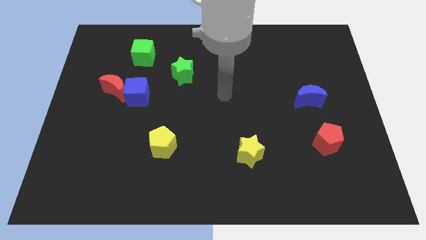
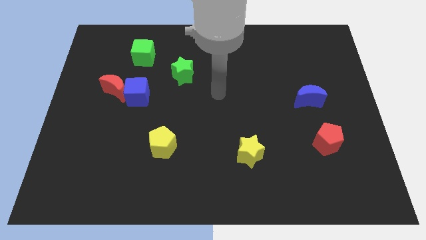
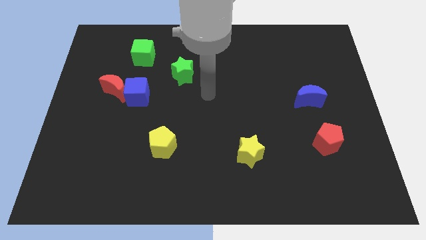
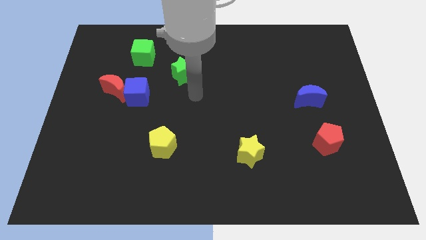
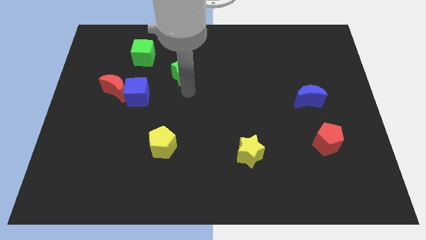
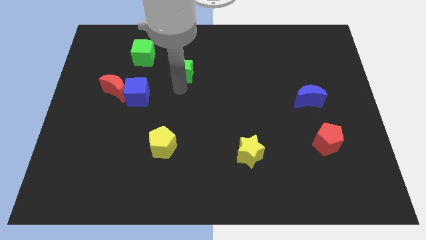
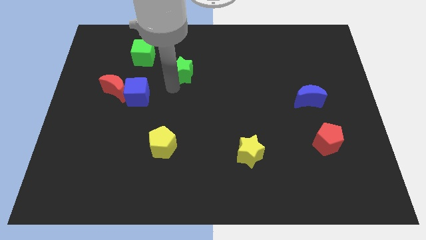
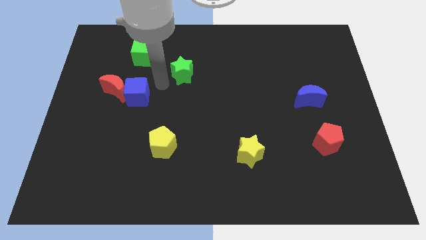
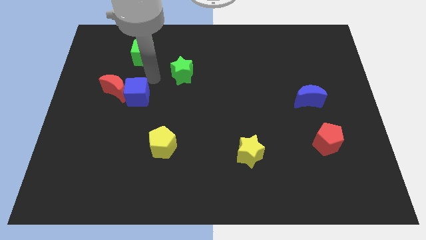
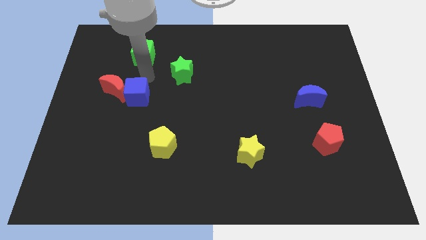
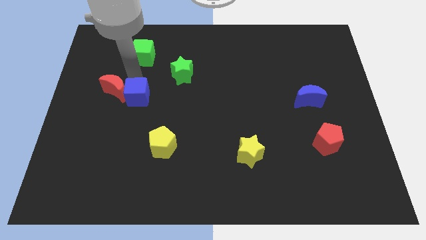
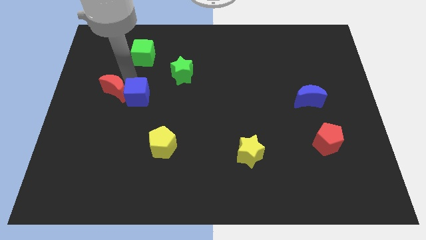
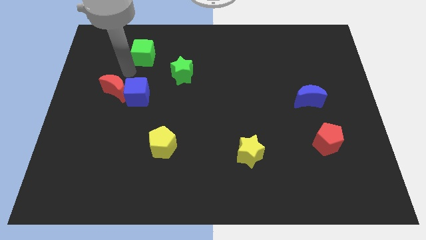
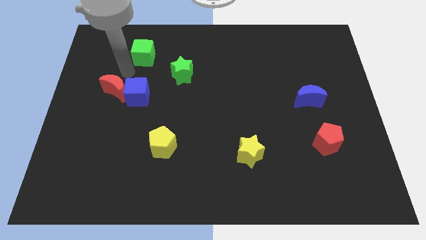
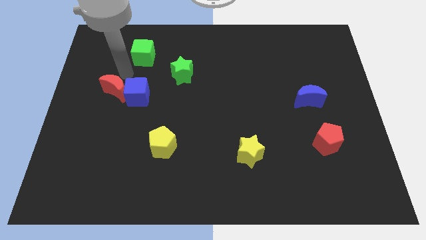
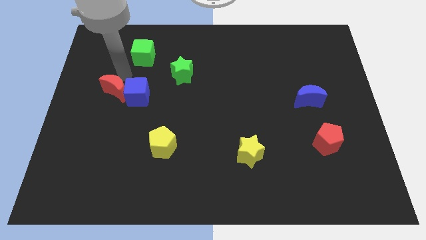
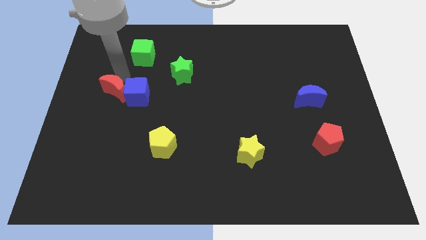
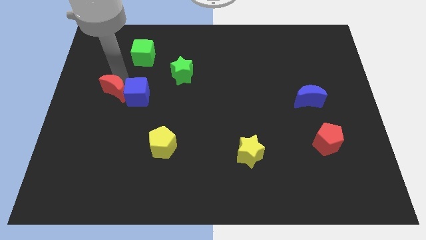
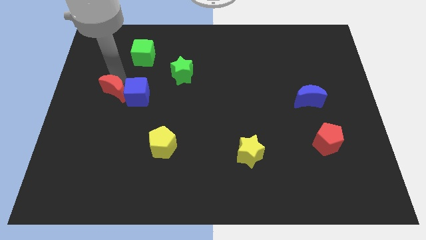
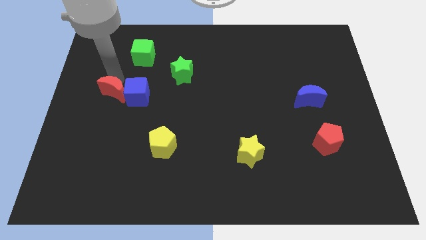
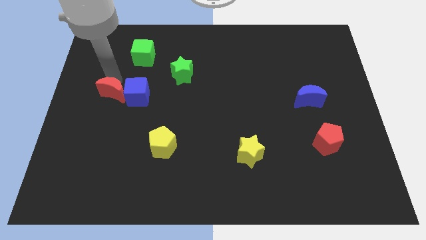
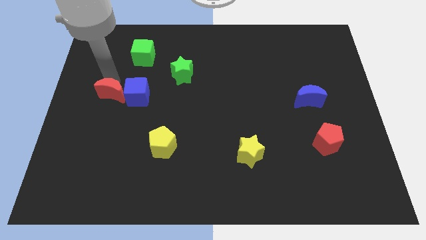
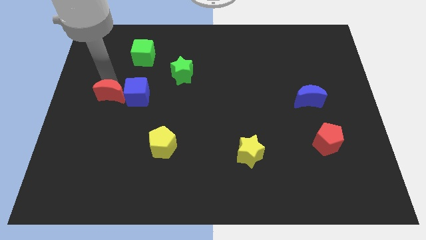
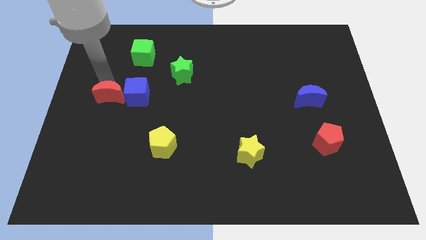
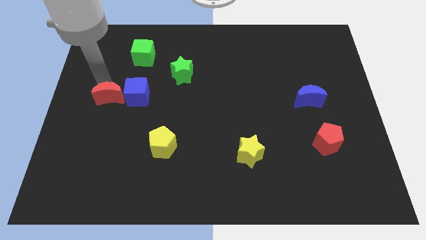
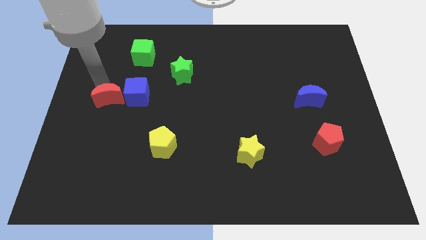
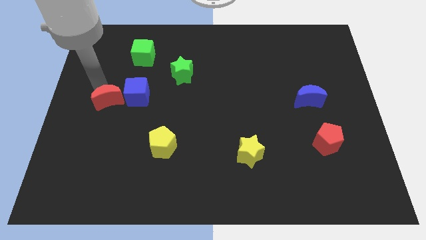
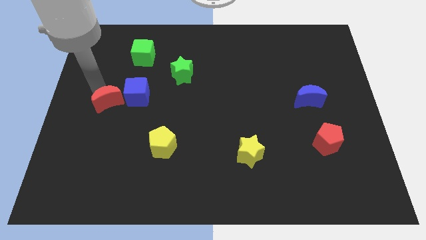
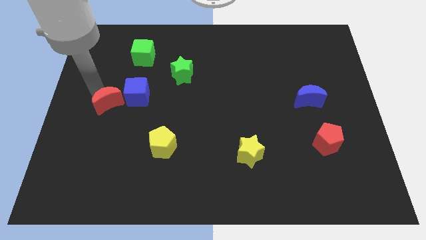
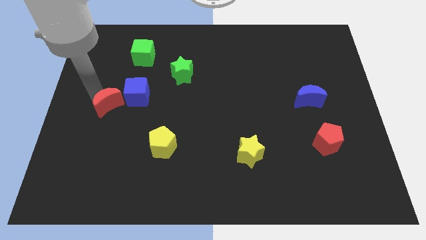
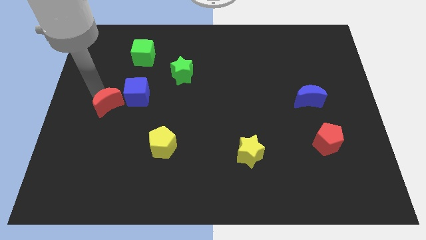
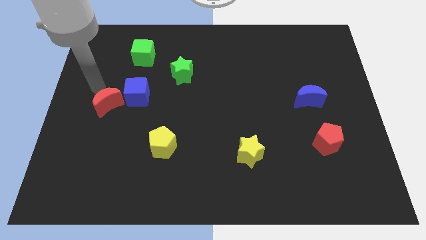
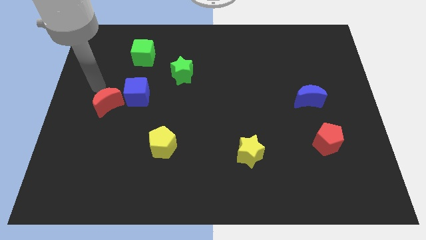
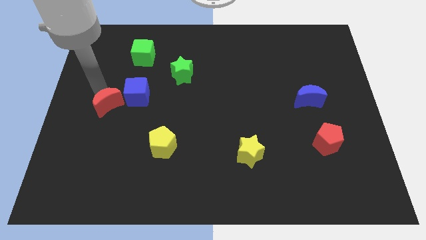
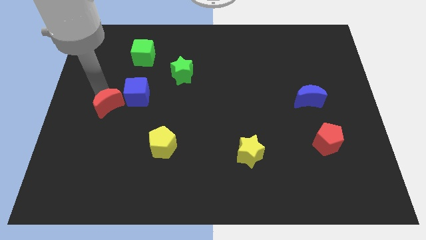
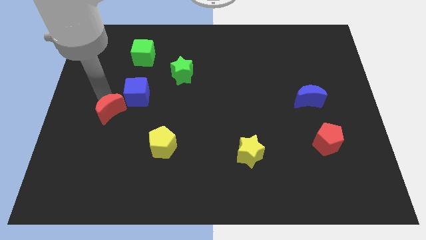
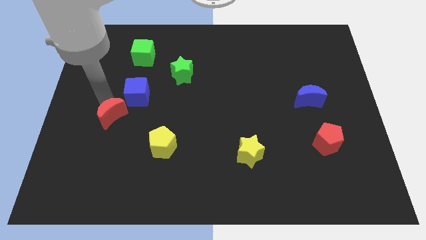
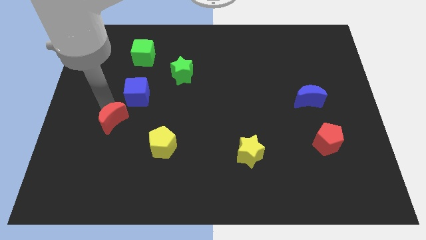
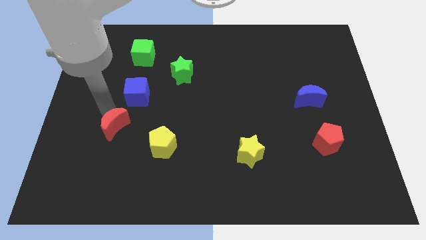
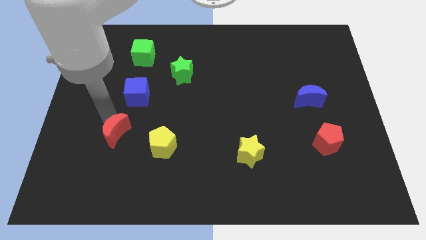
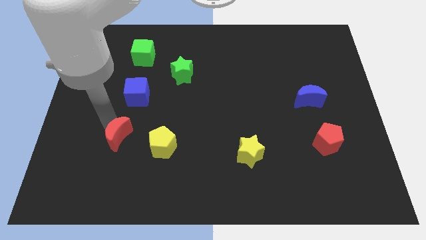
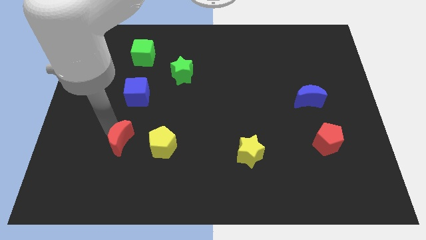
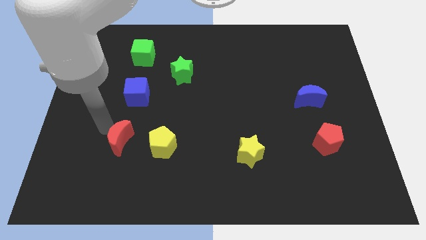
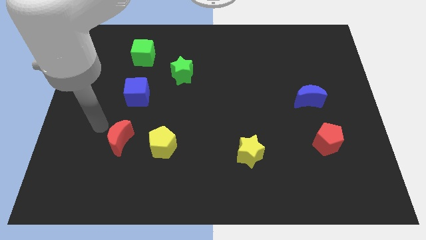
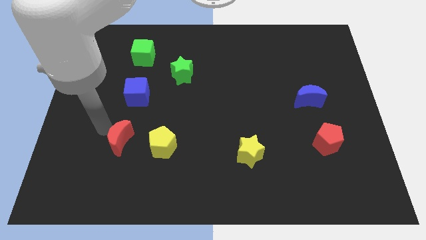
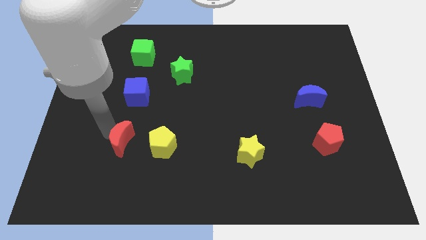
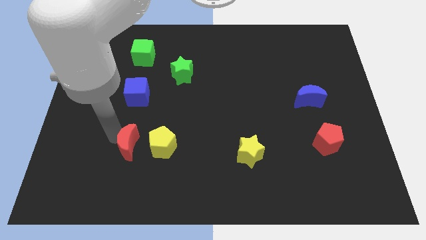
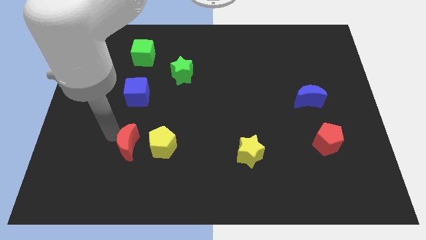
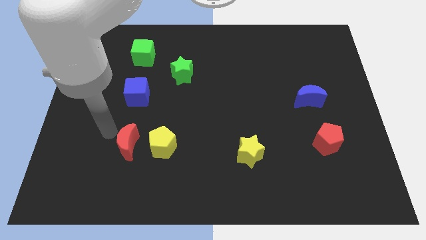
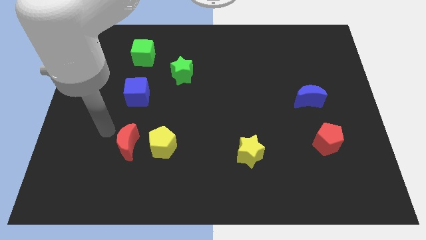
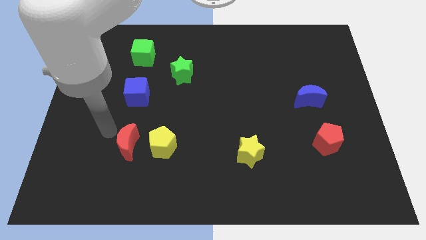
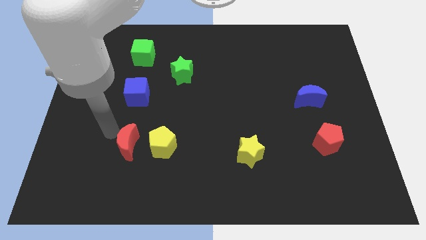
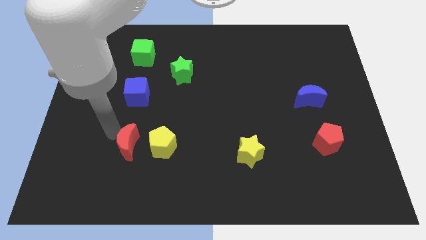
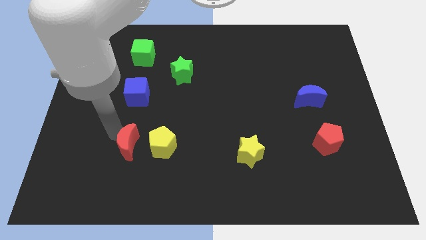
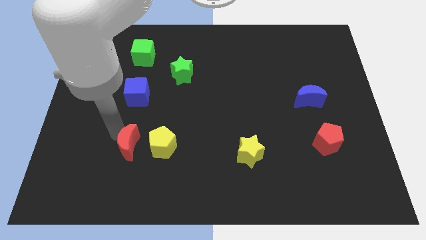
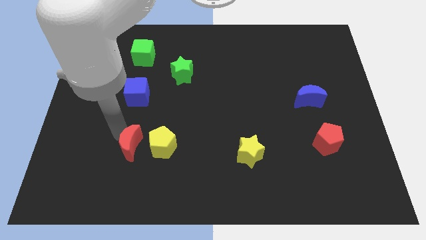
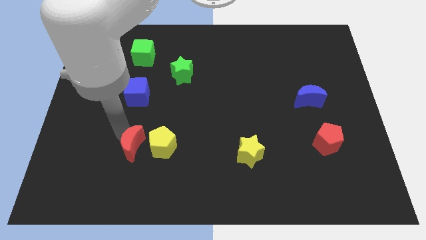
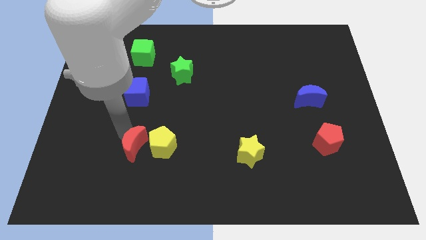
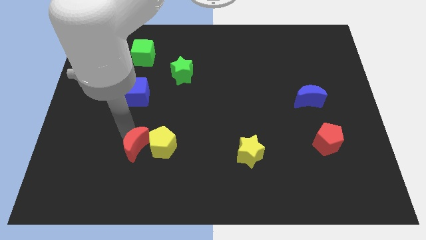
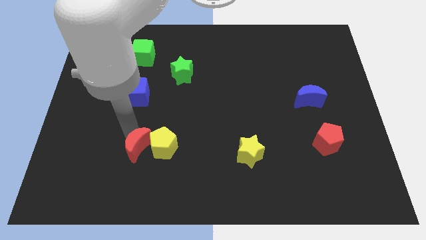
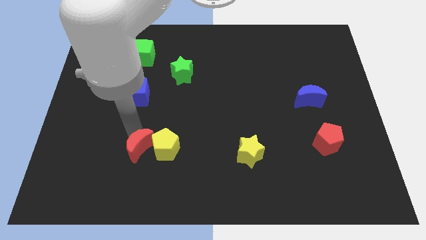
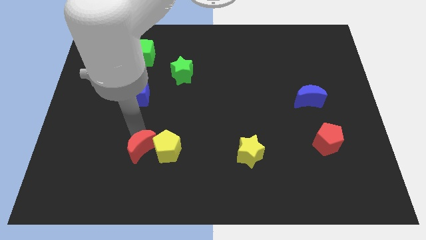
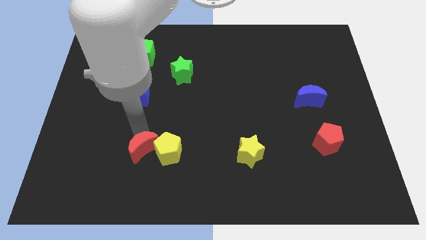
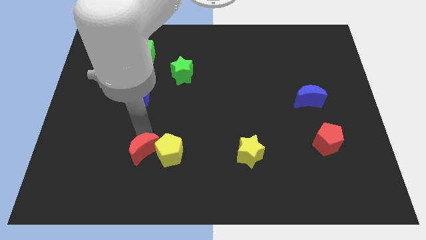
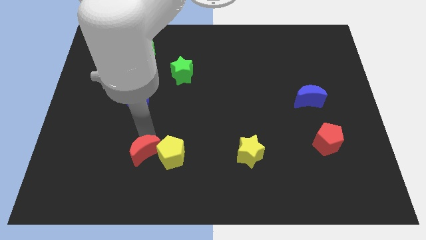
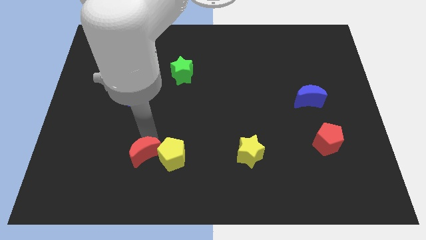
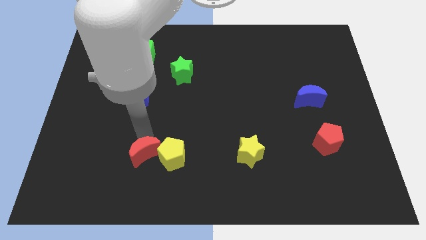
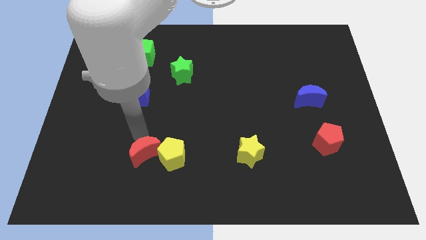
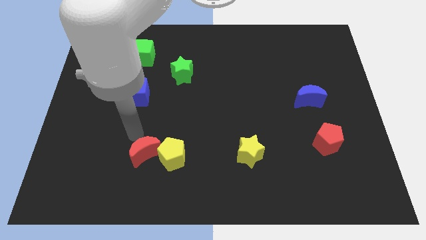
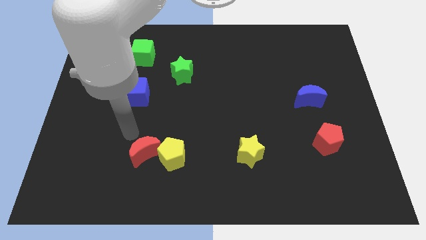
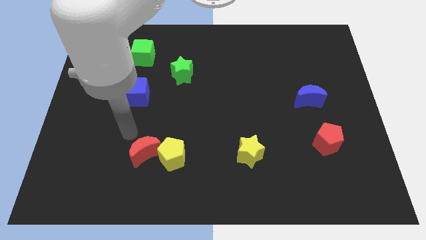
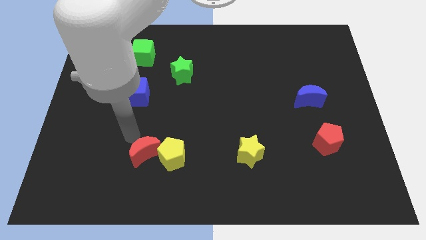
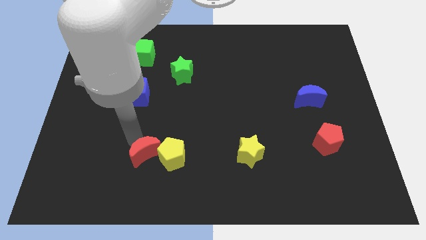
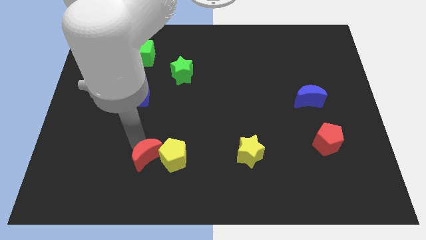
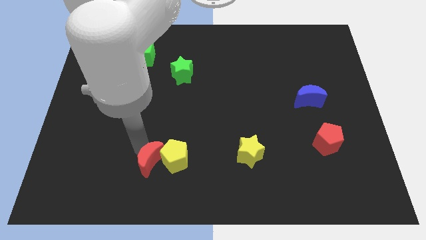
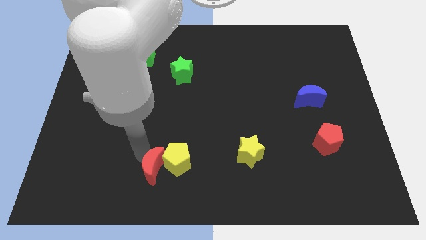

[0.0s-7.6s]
move the red moon diagonally down and right

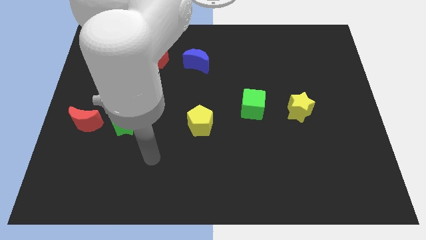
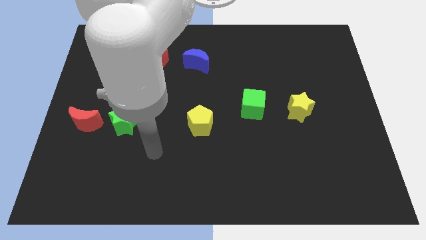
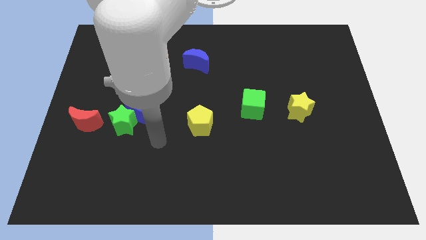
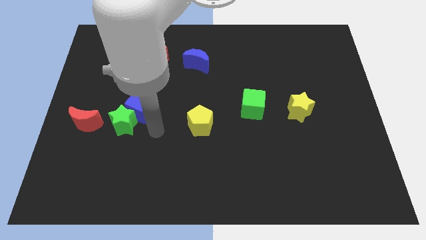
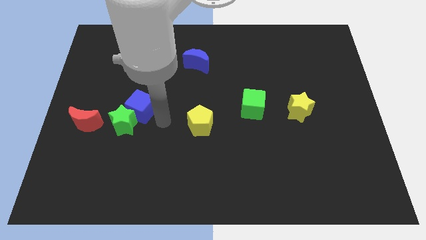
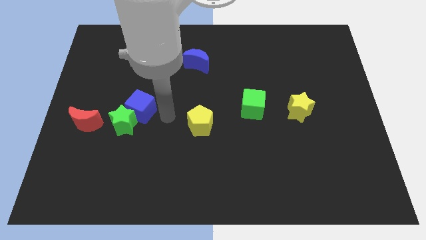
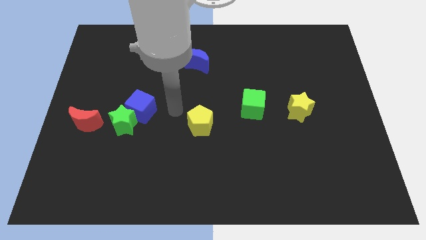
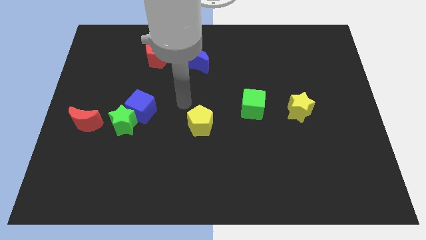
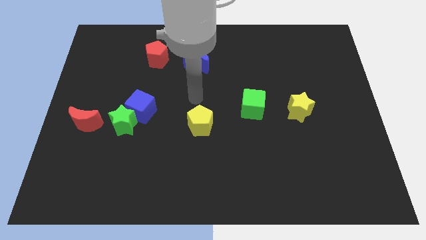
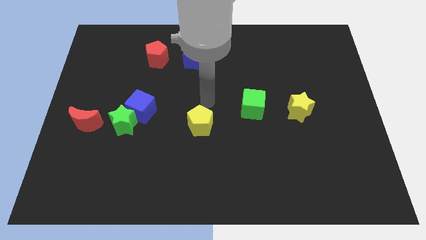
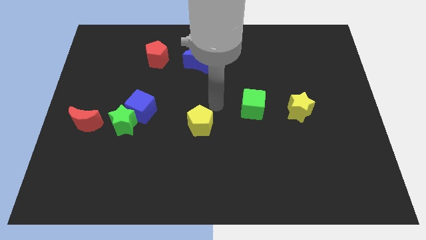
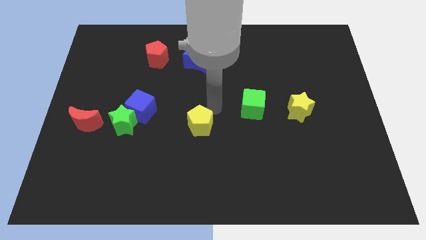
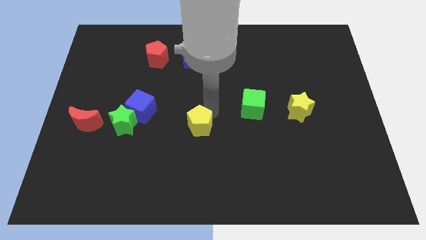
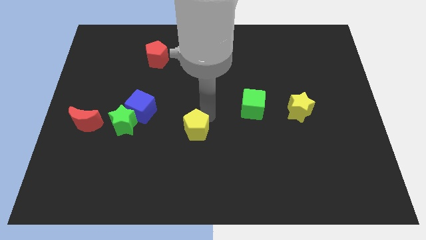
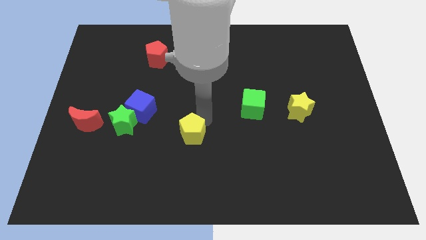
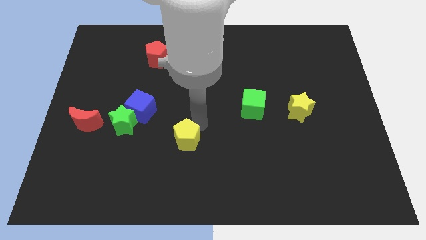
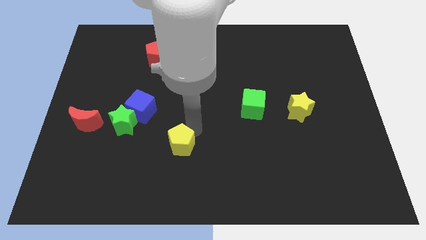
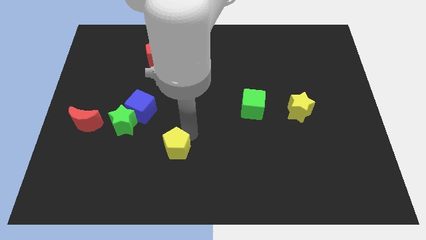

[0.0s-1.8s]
slightly push the yellow pentagon downwards and left
